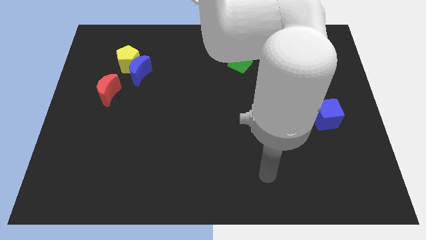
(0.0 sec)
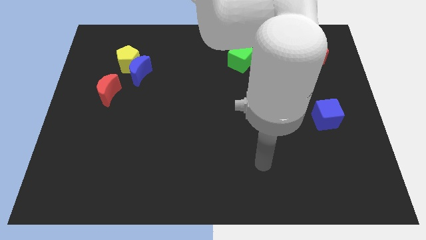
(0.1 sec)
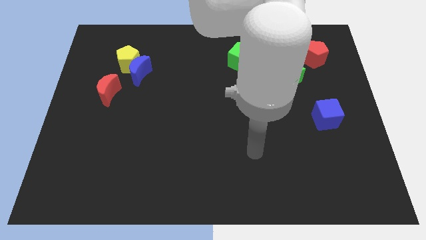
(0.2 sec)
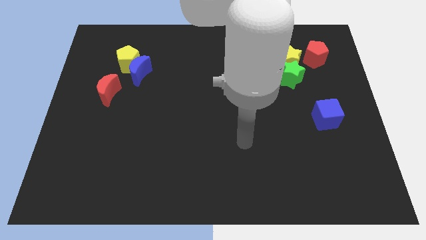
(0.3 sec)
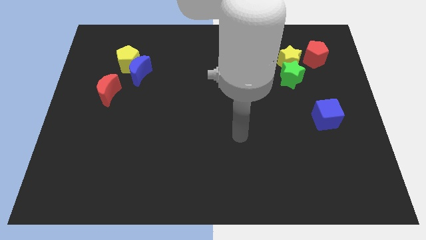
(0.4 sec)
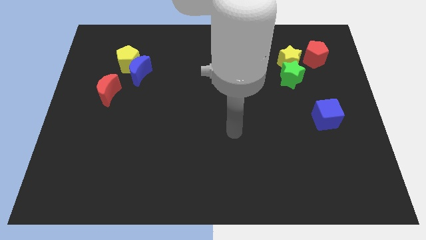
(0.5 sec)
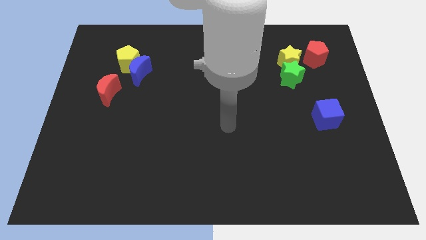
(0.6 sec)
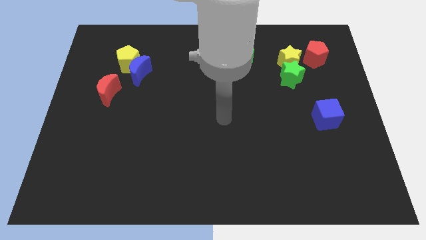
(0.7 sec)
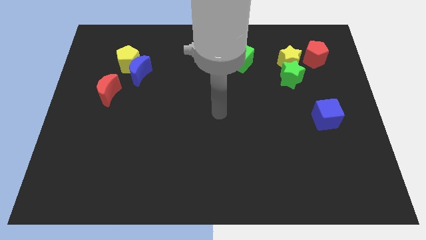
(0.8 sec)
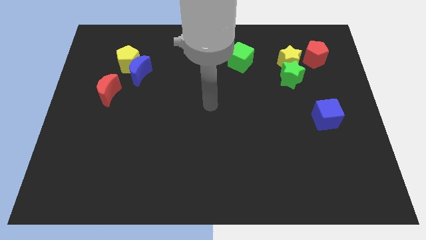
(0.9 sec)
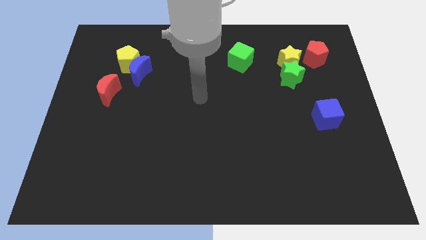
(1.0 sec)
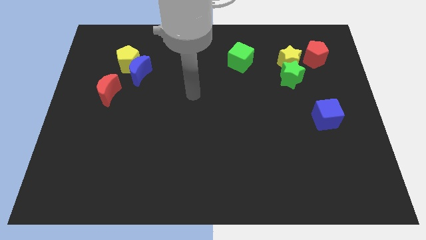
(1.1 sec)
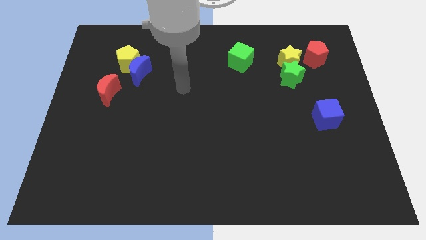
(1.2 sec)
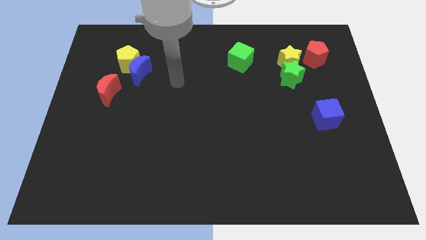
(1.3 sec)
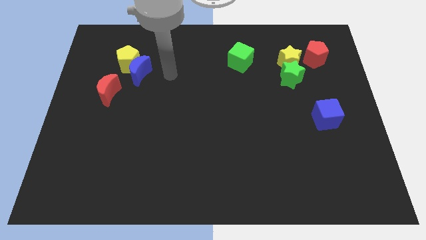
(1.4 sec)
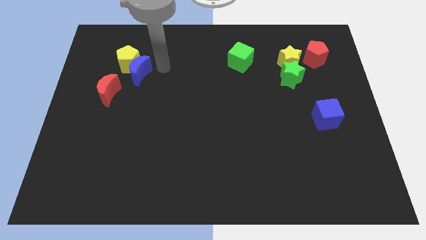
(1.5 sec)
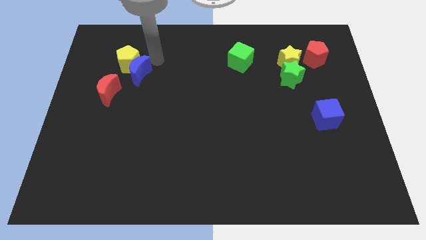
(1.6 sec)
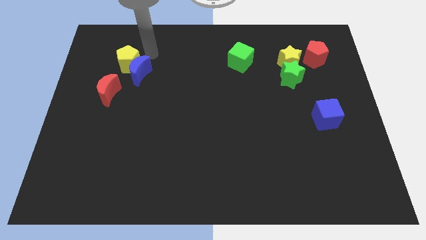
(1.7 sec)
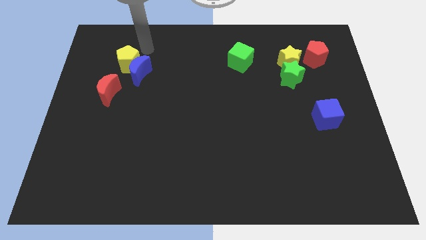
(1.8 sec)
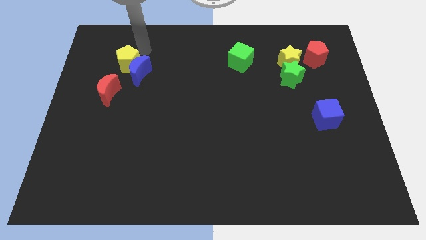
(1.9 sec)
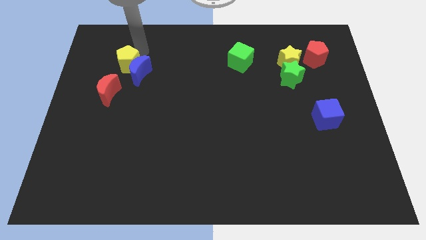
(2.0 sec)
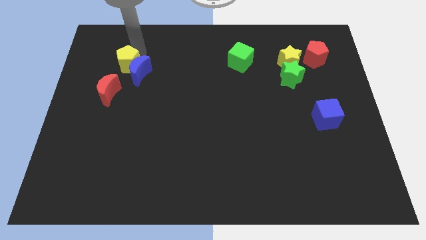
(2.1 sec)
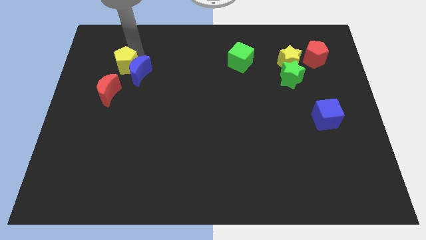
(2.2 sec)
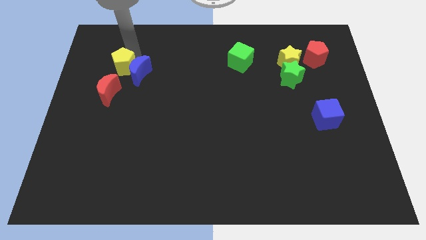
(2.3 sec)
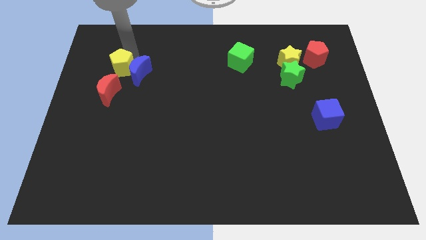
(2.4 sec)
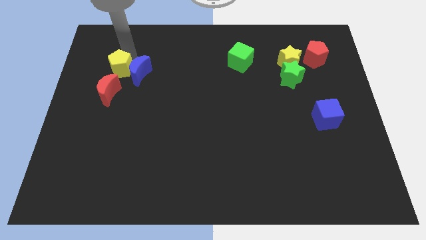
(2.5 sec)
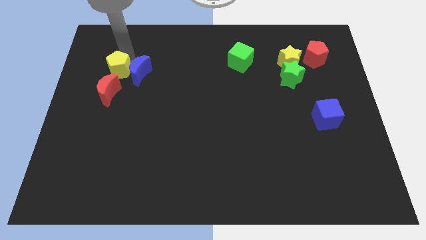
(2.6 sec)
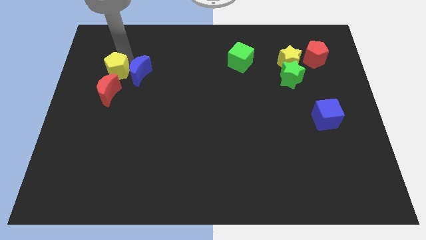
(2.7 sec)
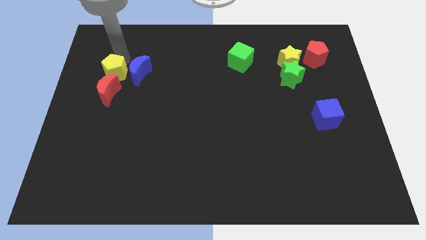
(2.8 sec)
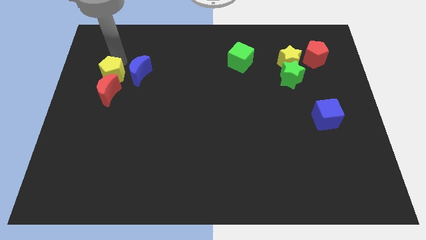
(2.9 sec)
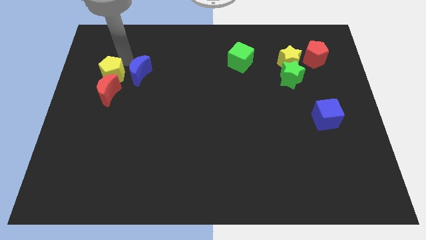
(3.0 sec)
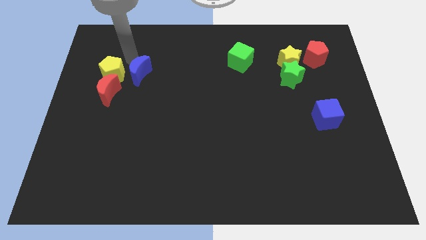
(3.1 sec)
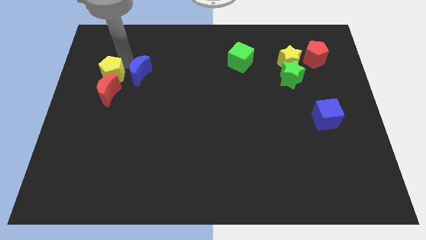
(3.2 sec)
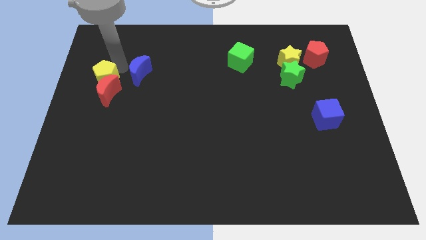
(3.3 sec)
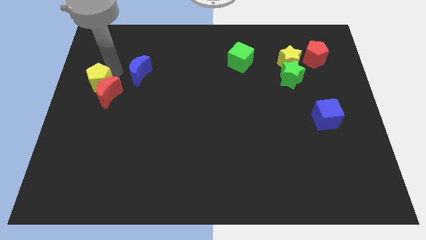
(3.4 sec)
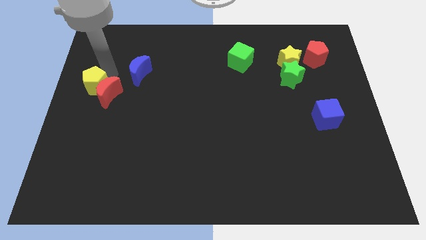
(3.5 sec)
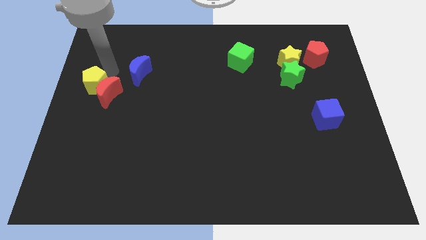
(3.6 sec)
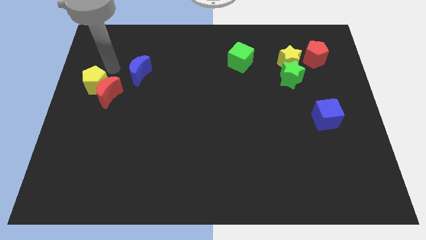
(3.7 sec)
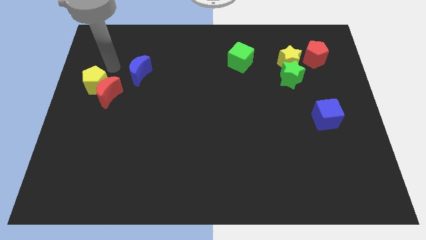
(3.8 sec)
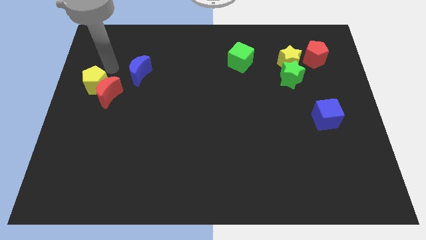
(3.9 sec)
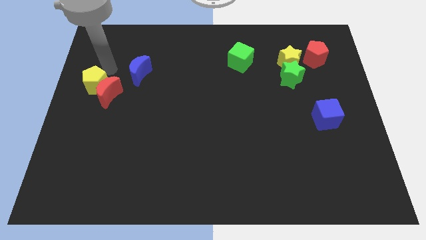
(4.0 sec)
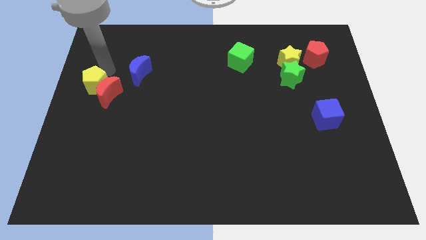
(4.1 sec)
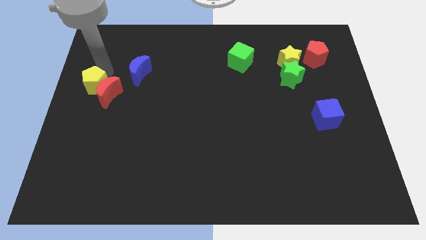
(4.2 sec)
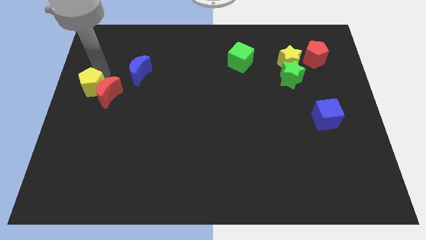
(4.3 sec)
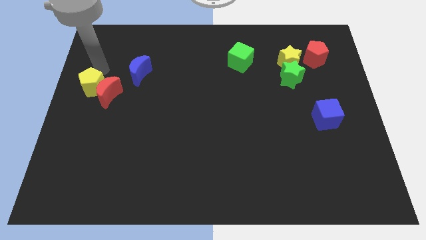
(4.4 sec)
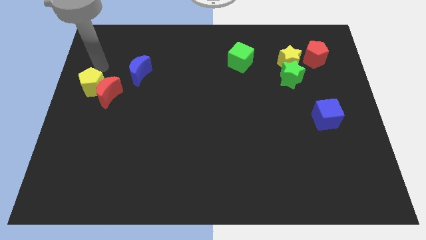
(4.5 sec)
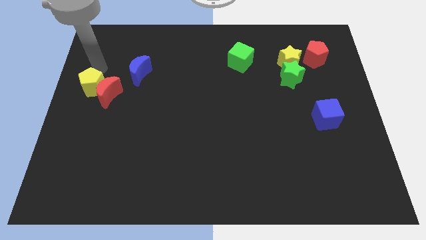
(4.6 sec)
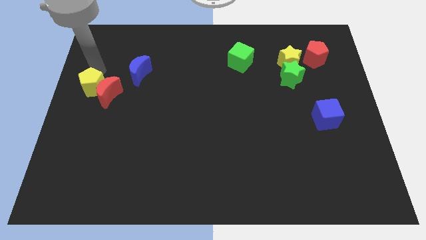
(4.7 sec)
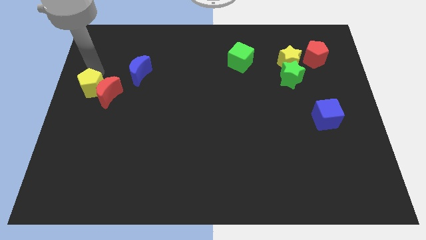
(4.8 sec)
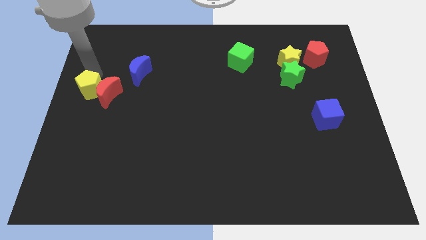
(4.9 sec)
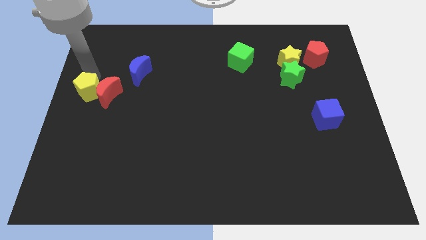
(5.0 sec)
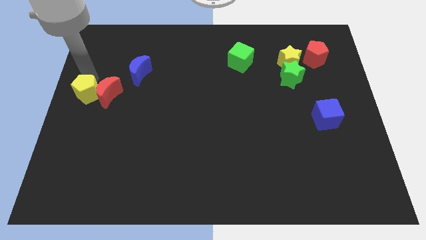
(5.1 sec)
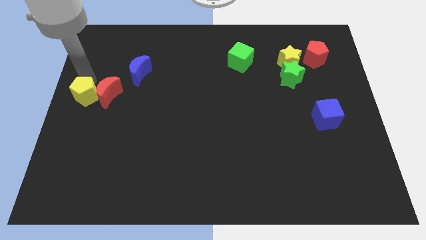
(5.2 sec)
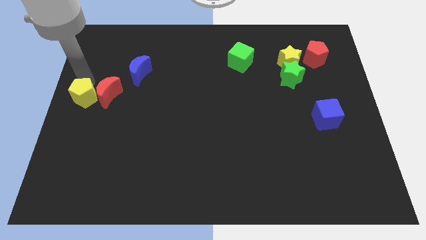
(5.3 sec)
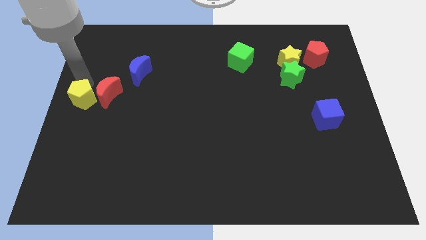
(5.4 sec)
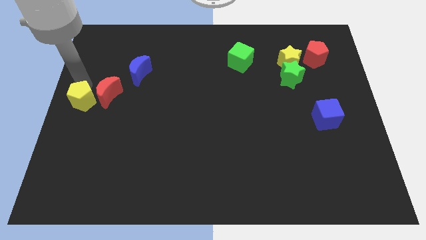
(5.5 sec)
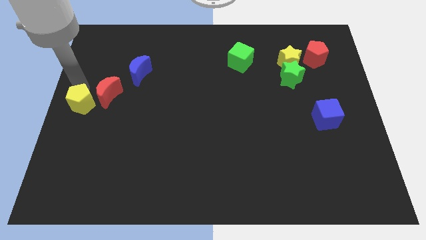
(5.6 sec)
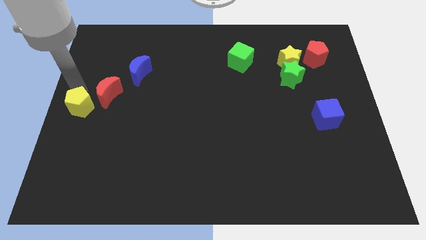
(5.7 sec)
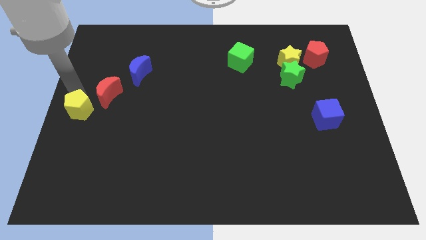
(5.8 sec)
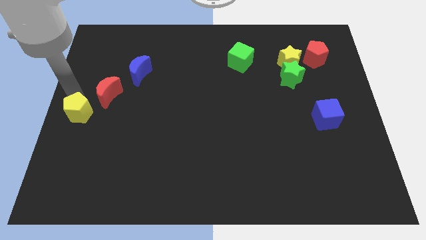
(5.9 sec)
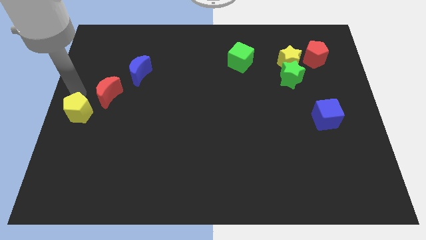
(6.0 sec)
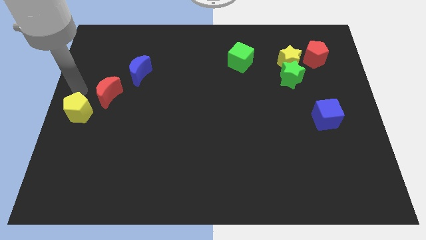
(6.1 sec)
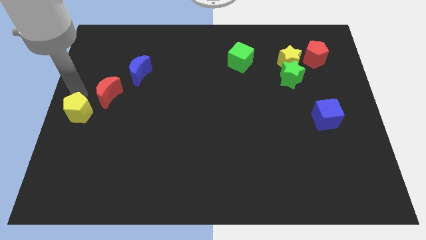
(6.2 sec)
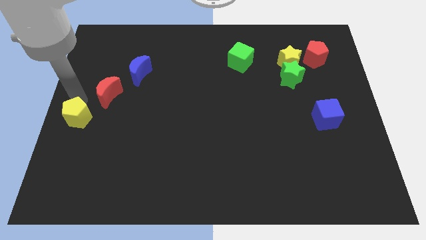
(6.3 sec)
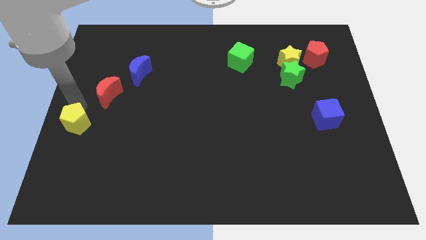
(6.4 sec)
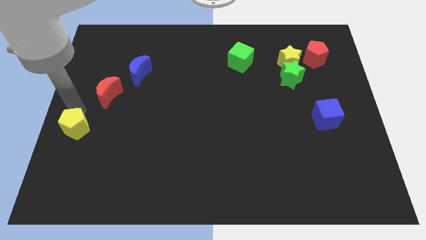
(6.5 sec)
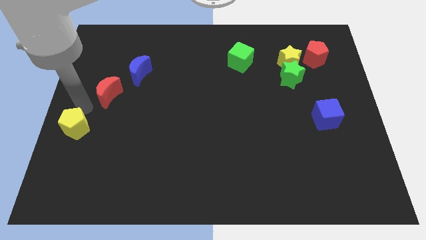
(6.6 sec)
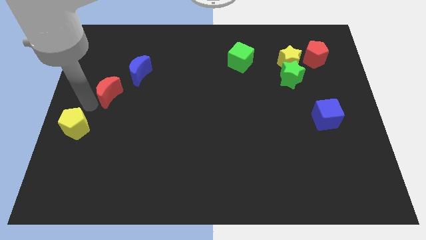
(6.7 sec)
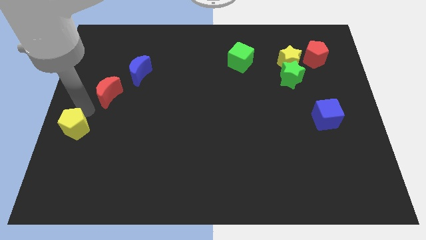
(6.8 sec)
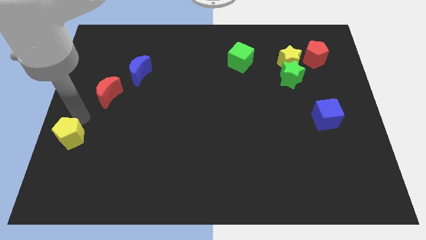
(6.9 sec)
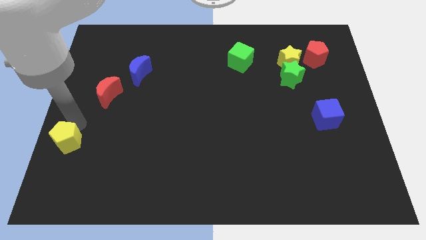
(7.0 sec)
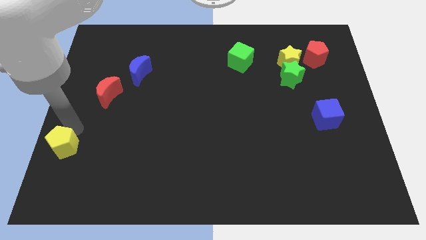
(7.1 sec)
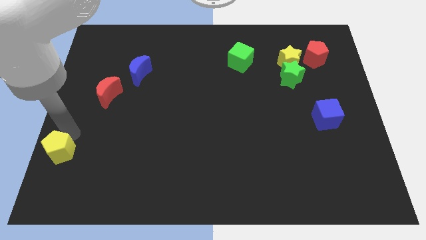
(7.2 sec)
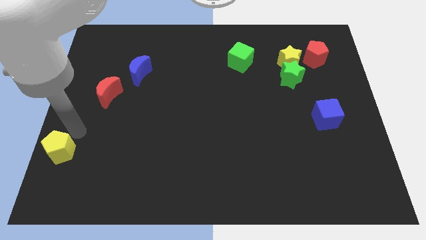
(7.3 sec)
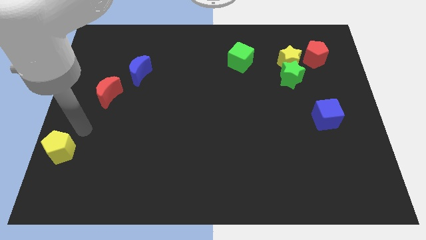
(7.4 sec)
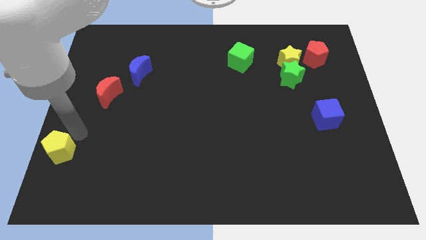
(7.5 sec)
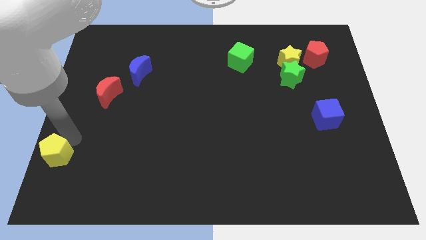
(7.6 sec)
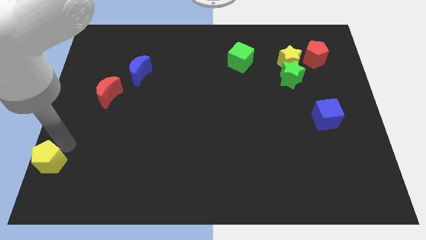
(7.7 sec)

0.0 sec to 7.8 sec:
slide the yellow pentagon to the bottom left of the board
